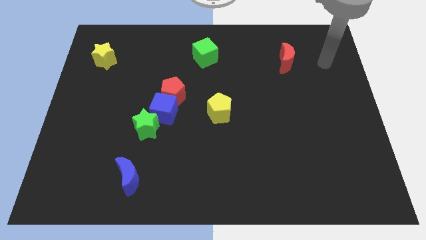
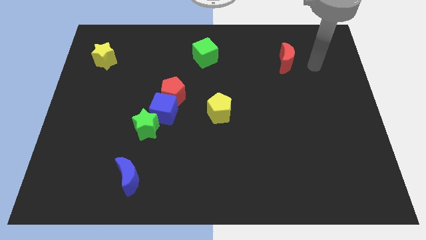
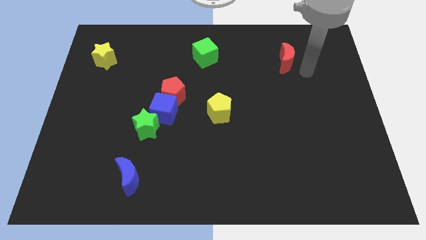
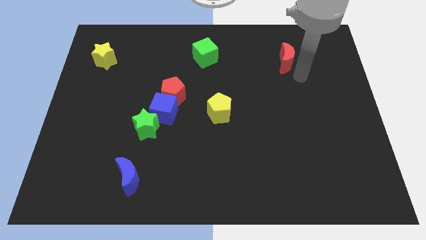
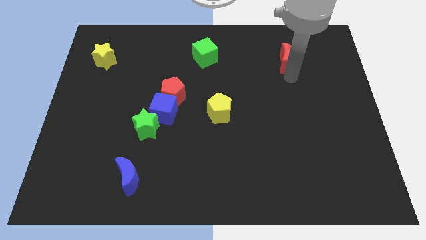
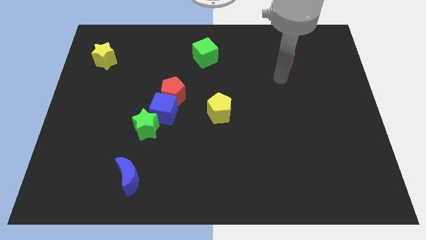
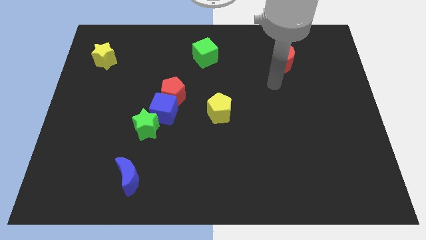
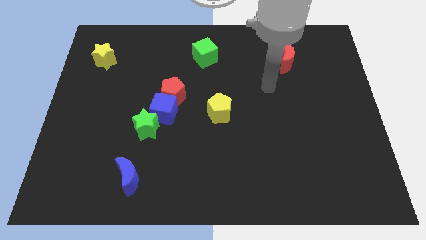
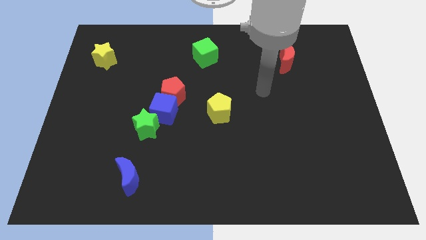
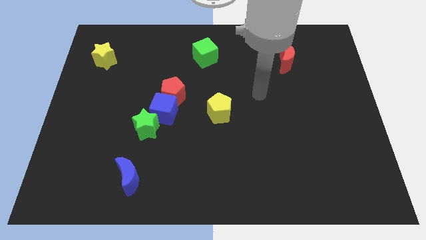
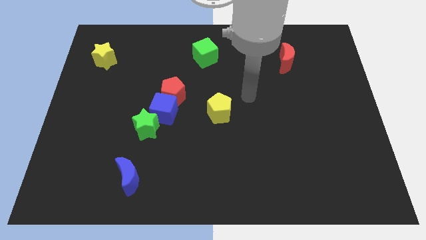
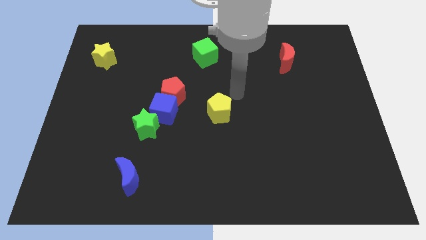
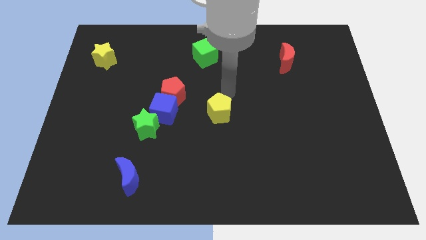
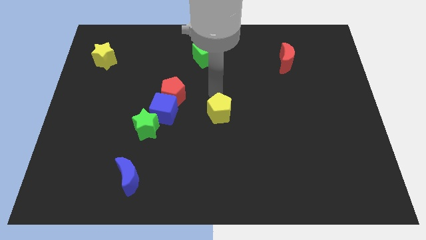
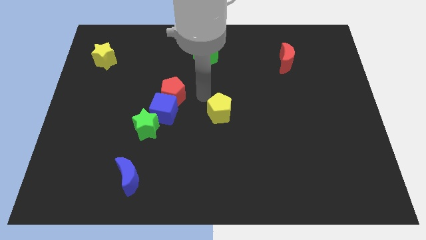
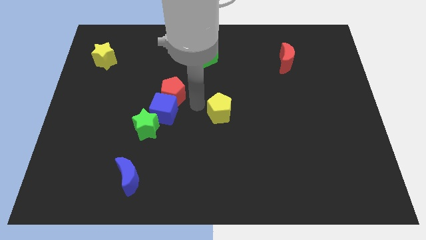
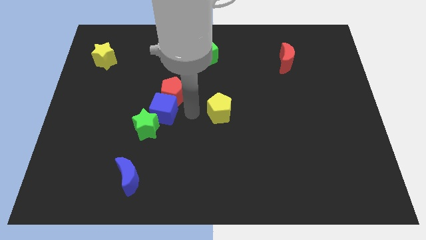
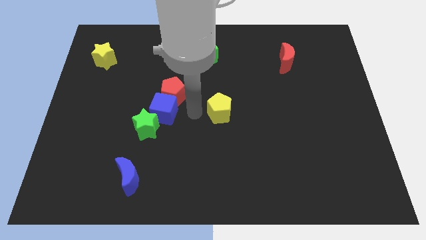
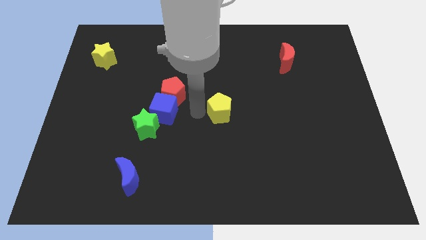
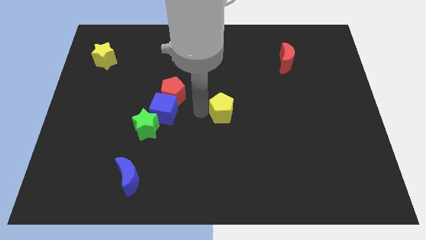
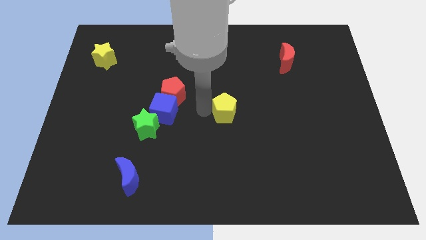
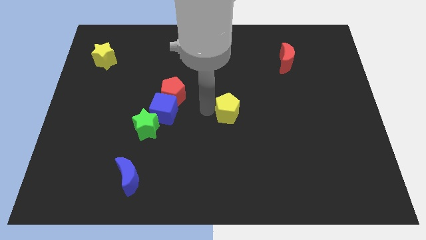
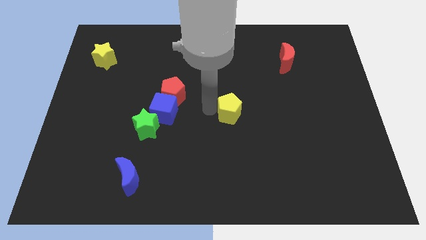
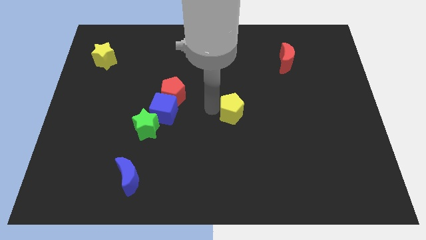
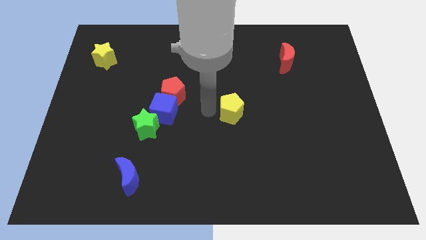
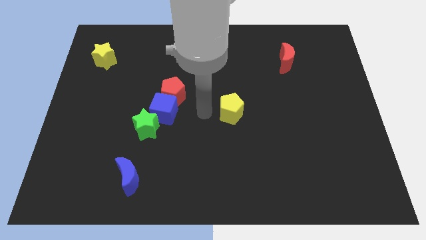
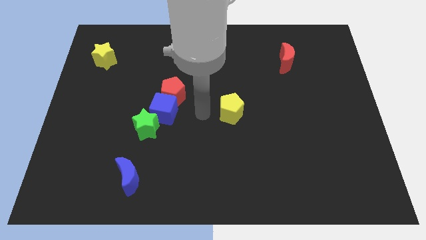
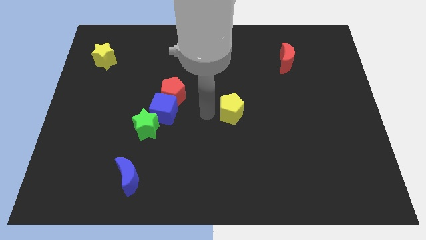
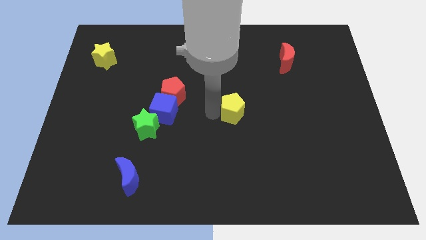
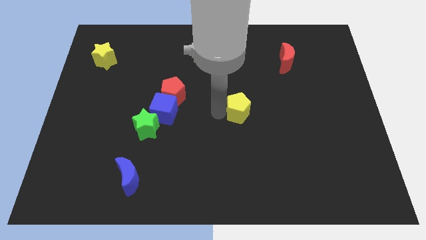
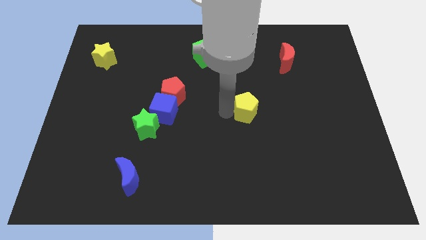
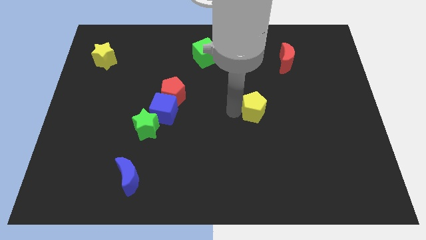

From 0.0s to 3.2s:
push the yellow pentagon slightly right

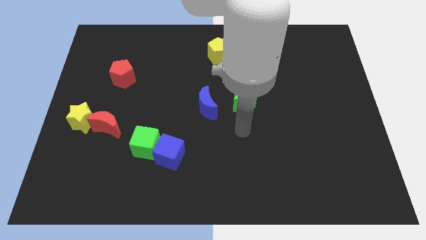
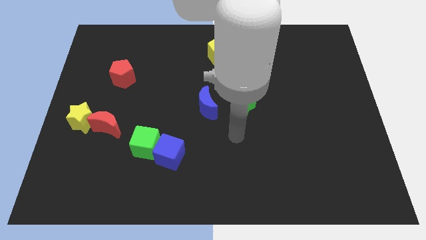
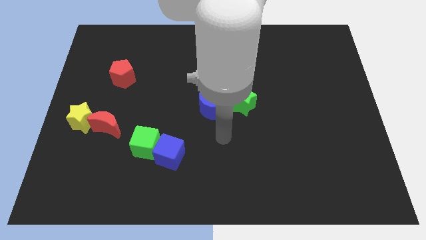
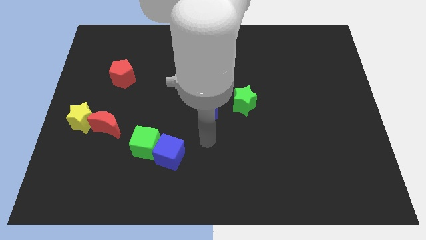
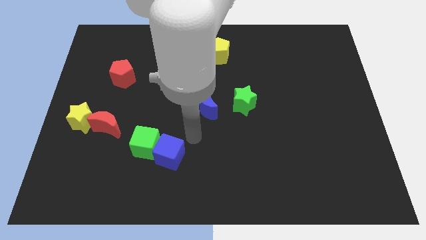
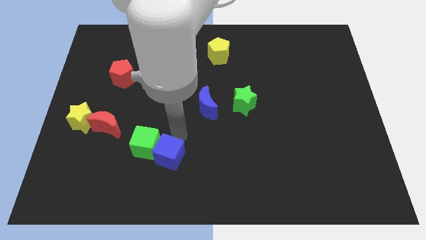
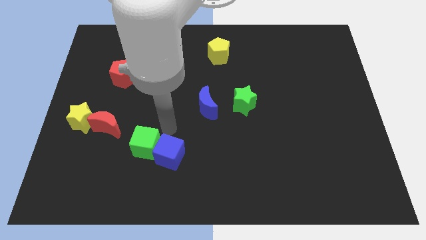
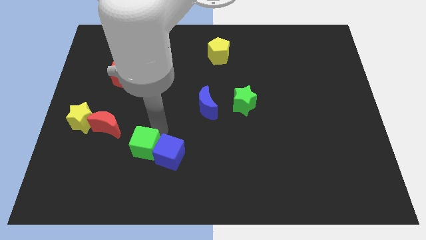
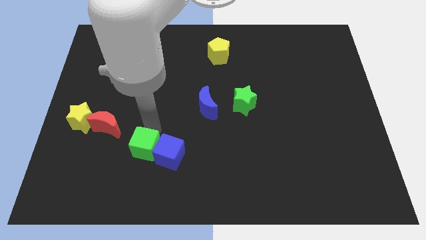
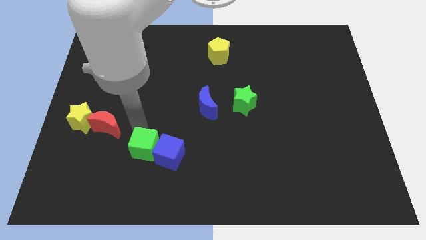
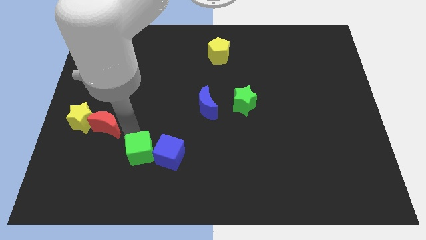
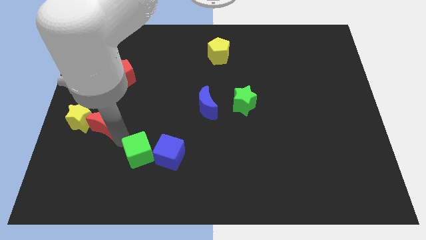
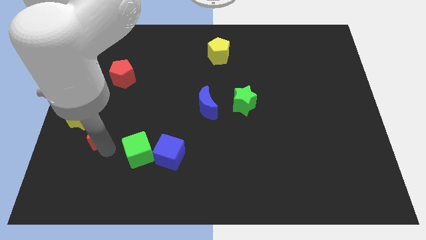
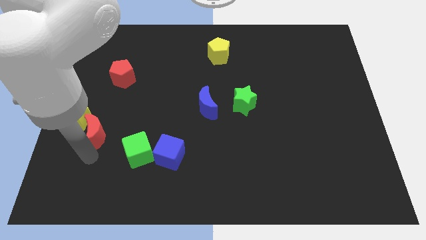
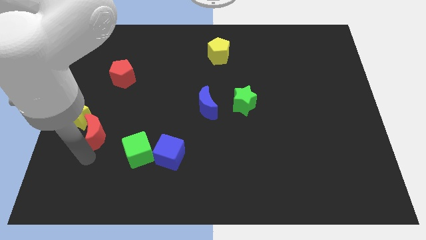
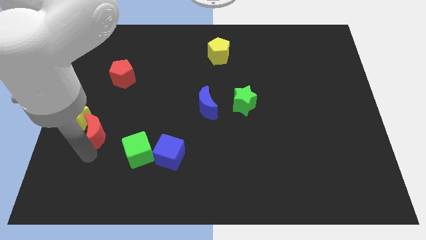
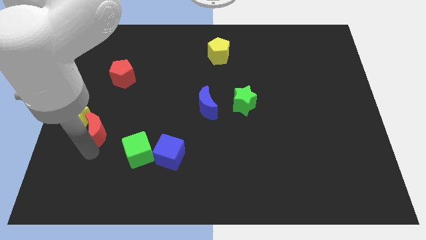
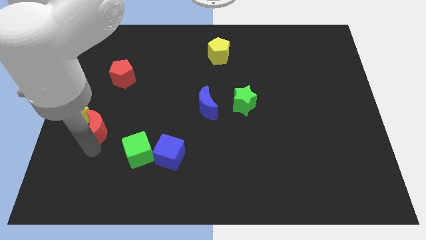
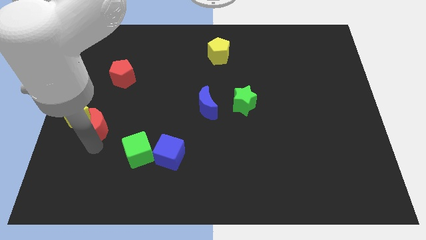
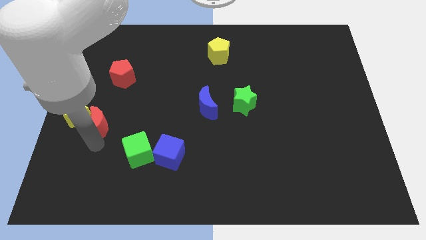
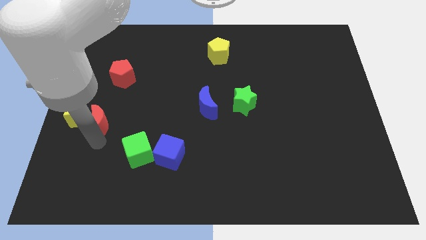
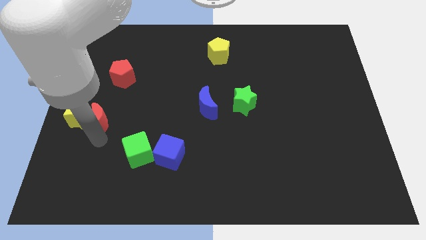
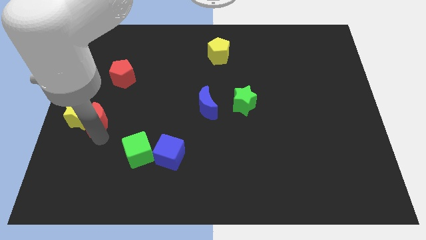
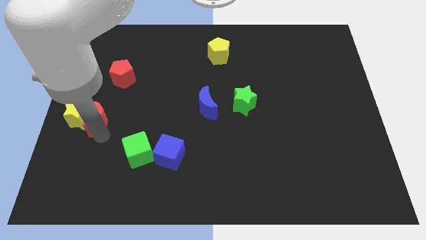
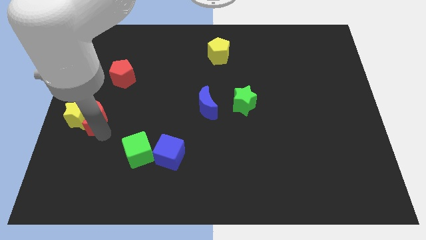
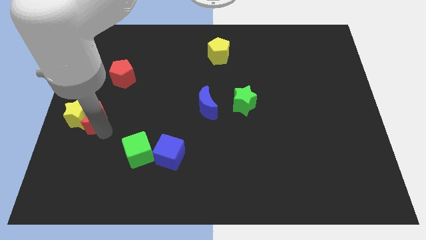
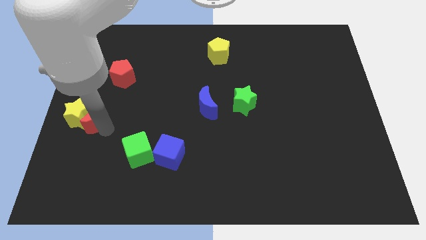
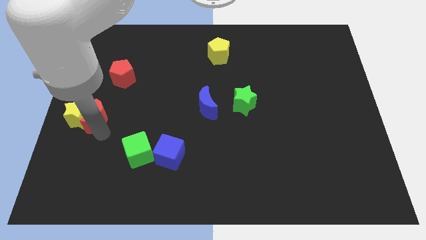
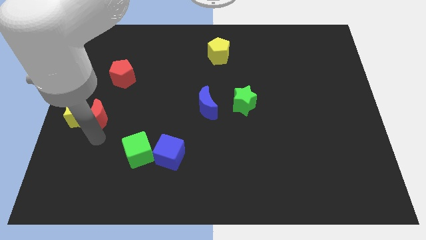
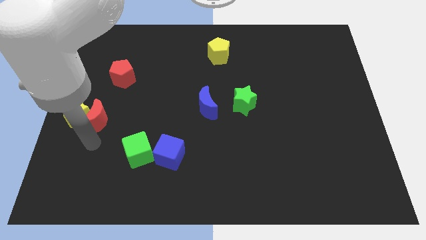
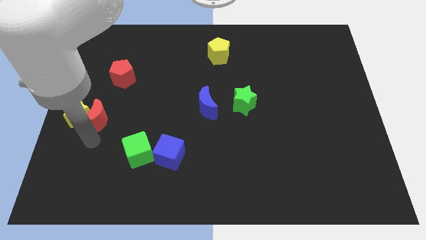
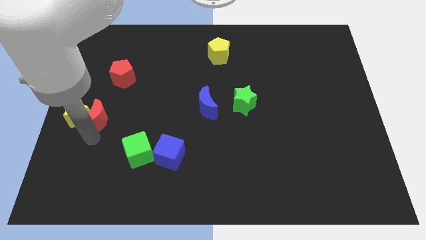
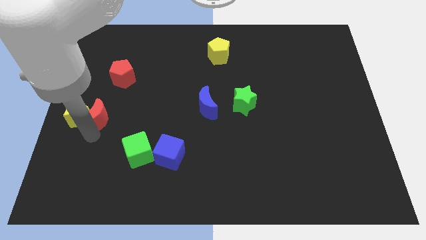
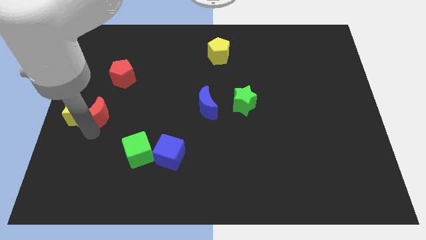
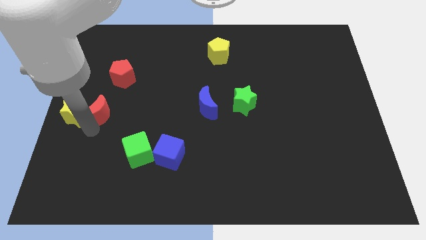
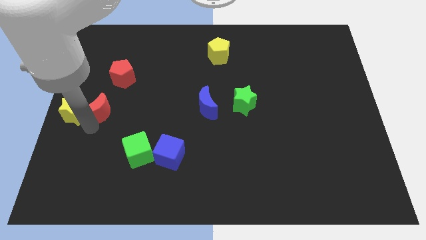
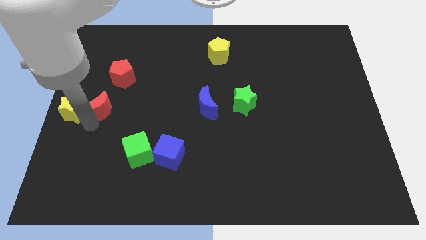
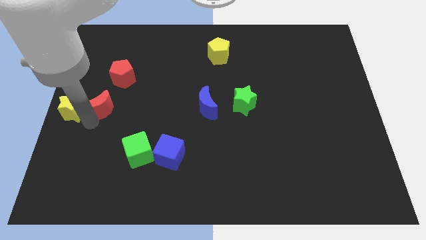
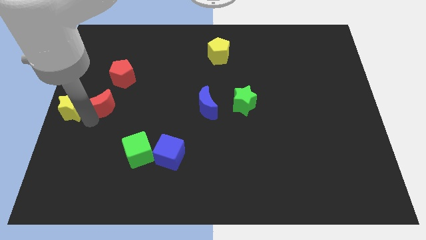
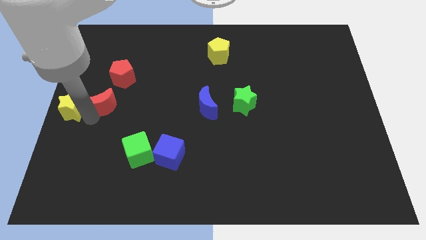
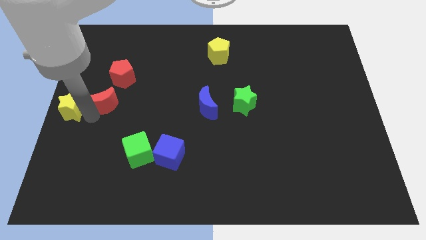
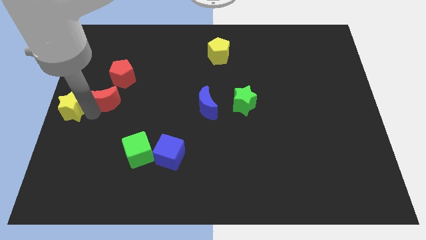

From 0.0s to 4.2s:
push the red moon somewhat upwards

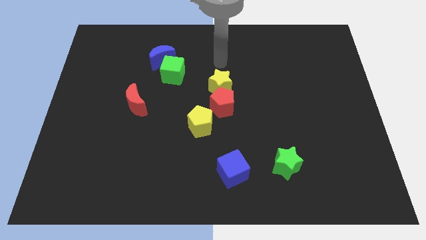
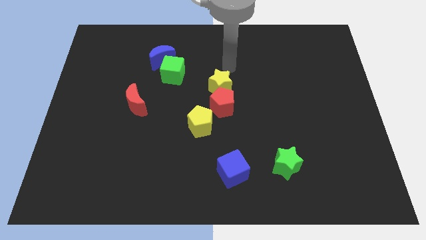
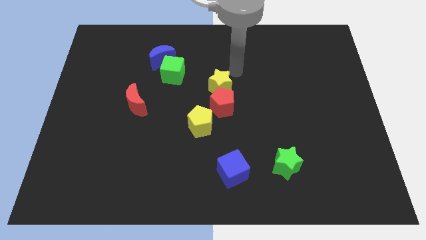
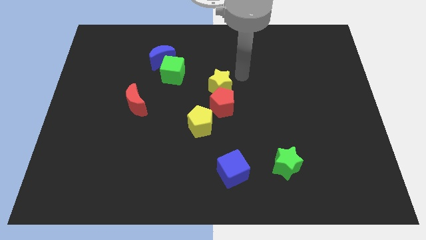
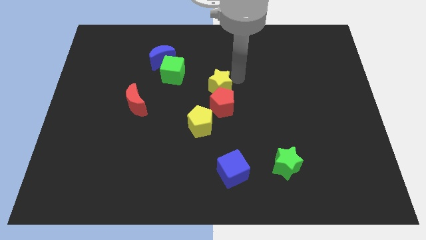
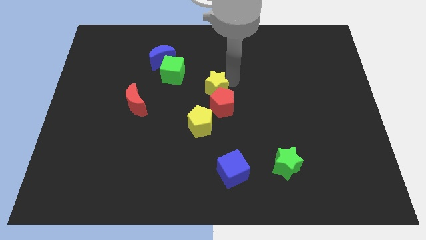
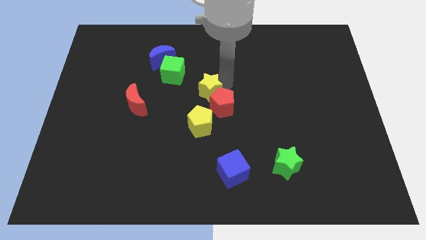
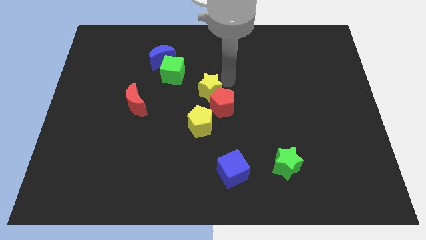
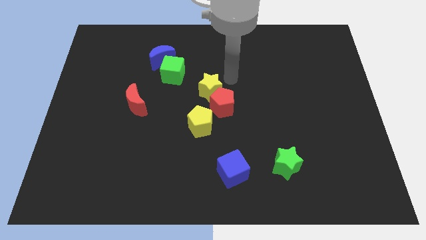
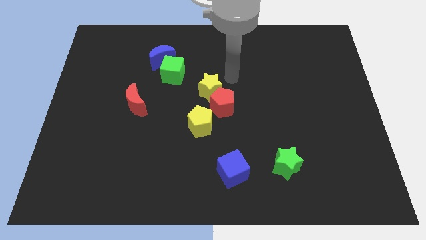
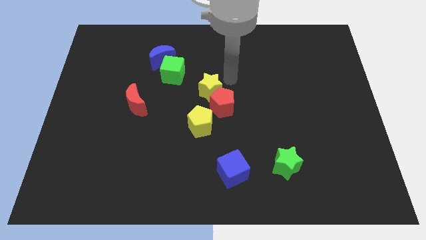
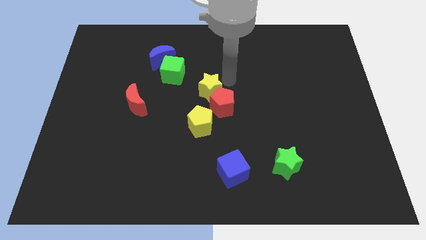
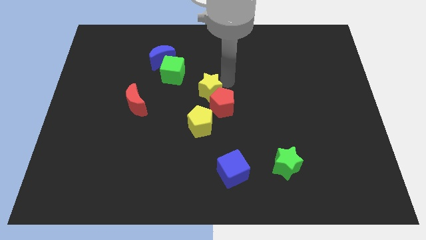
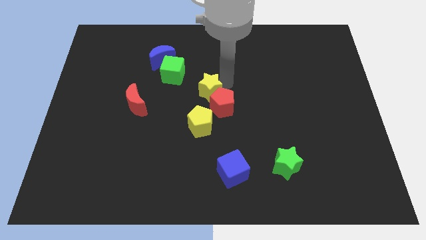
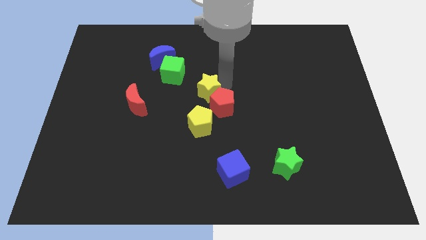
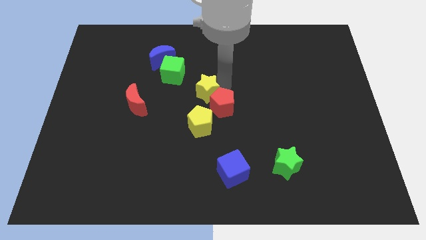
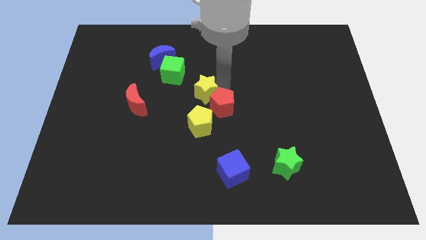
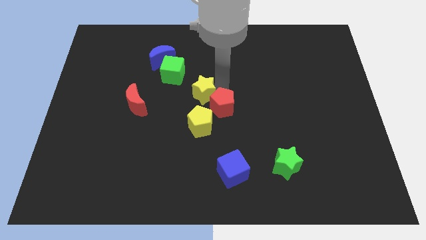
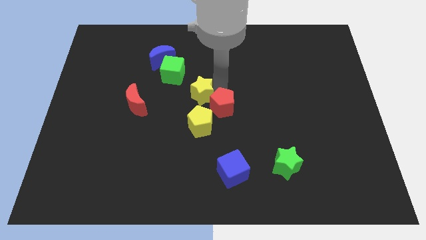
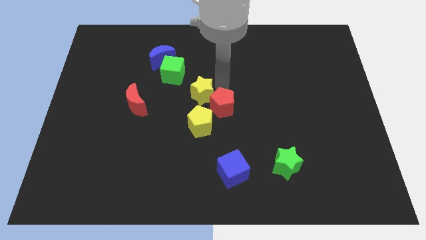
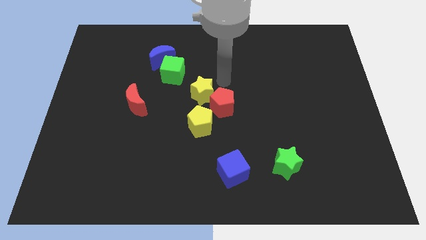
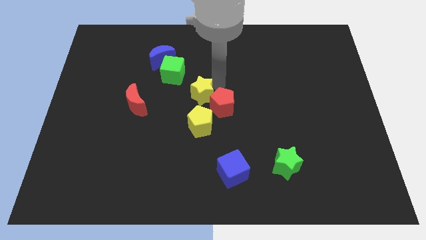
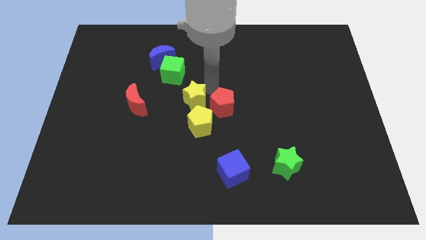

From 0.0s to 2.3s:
push the yellow star down and left a bit
